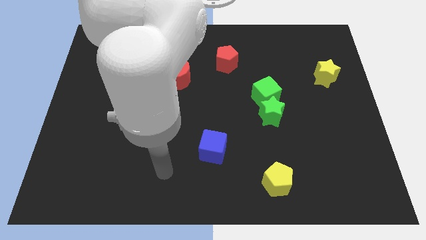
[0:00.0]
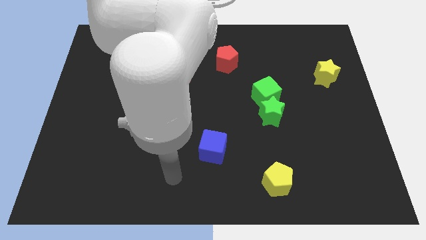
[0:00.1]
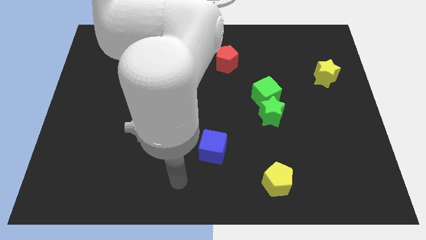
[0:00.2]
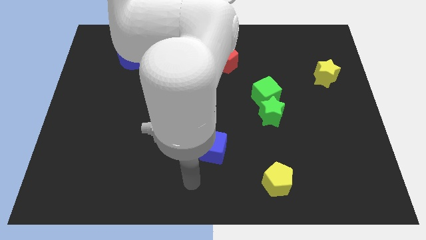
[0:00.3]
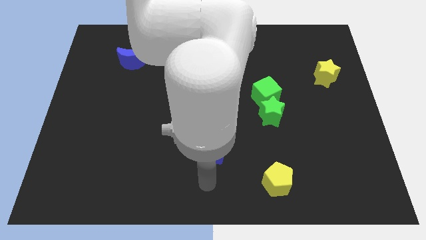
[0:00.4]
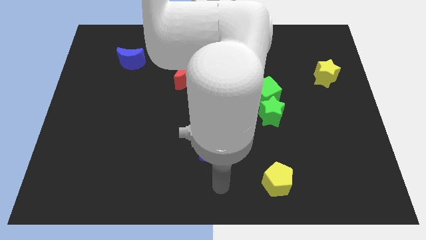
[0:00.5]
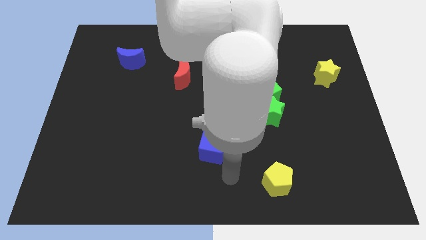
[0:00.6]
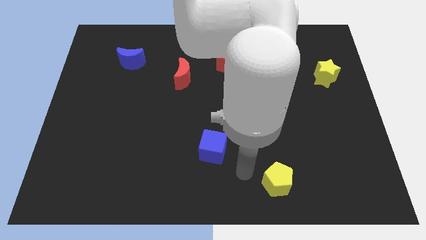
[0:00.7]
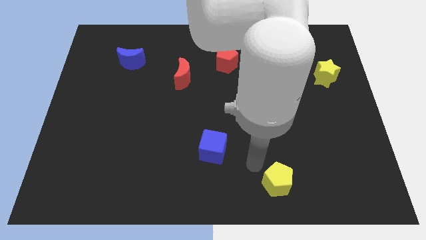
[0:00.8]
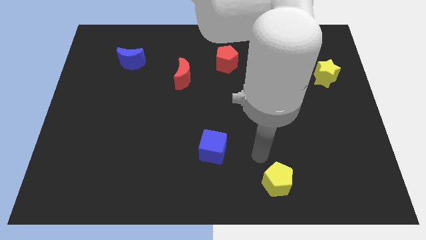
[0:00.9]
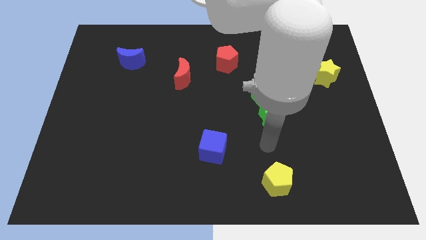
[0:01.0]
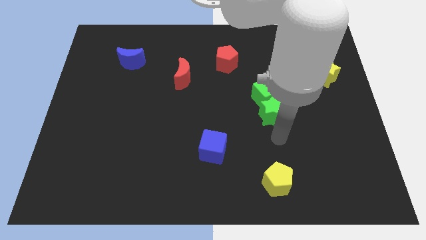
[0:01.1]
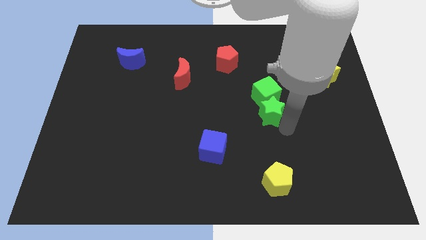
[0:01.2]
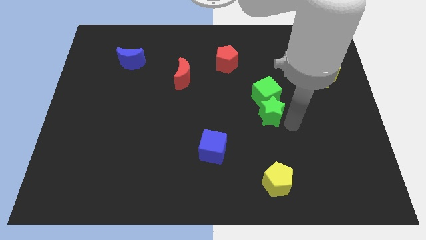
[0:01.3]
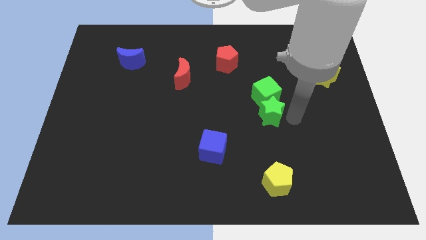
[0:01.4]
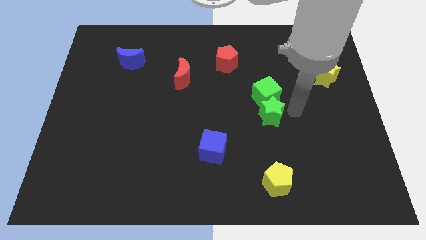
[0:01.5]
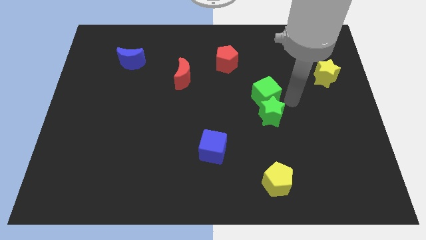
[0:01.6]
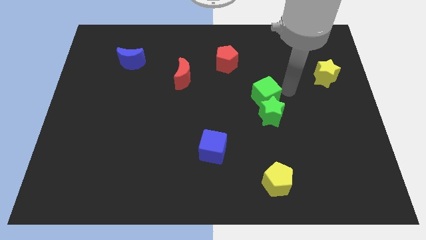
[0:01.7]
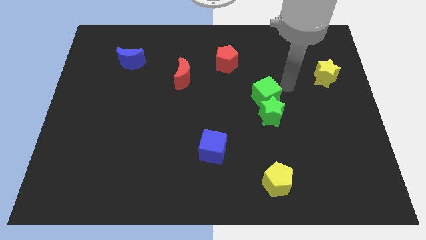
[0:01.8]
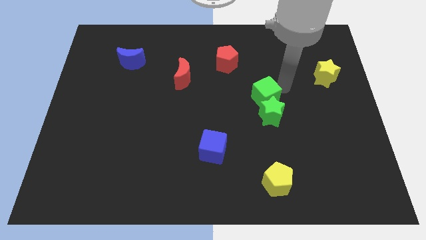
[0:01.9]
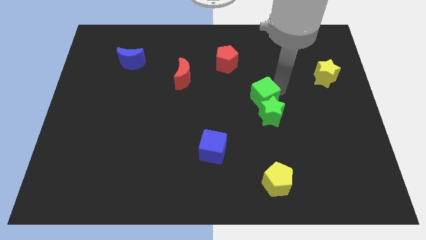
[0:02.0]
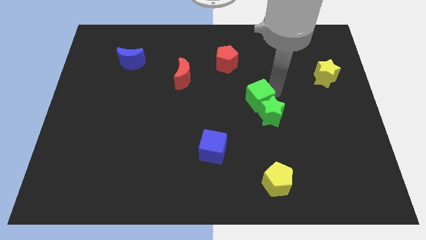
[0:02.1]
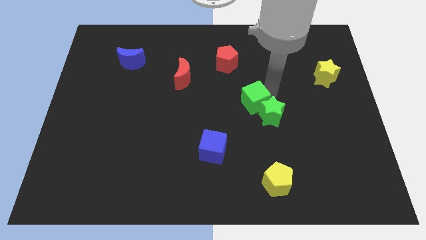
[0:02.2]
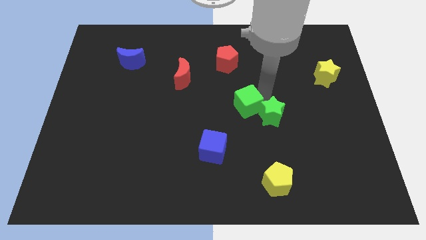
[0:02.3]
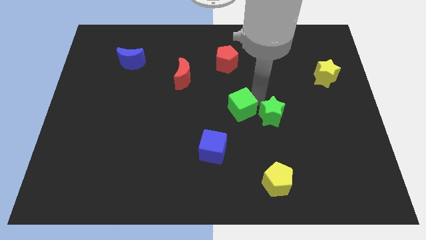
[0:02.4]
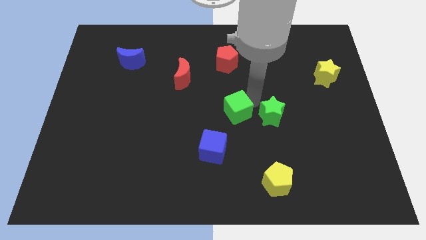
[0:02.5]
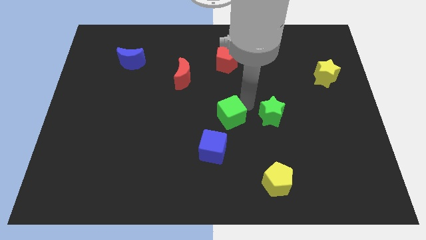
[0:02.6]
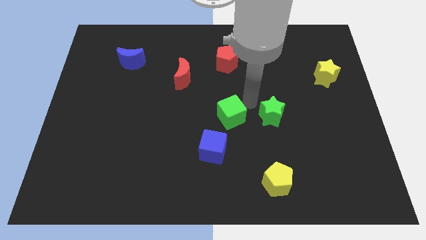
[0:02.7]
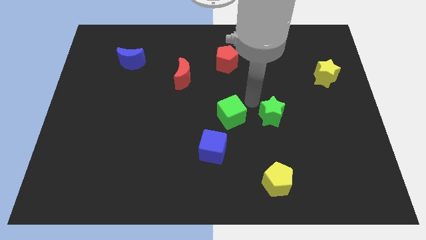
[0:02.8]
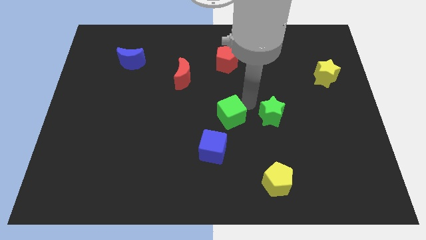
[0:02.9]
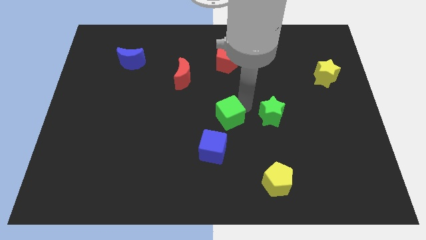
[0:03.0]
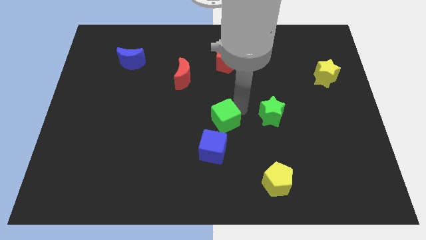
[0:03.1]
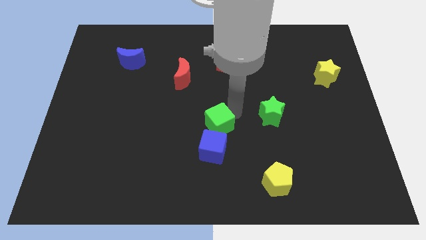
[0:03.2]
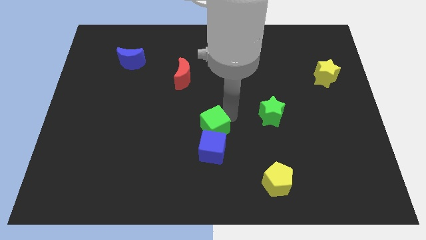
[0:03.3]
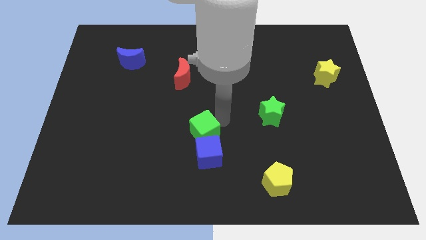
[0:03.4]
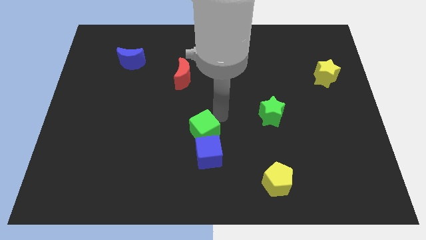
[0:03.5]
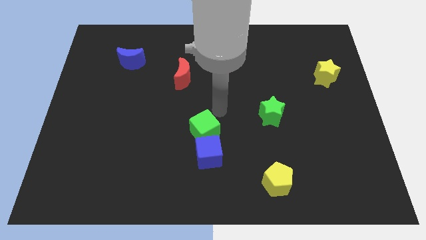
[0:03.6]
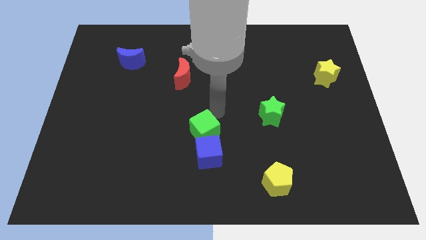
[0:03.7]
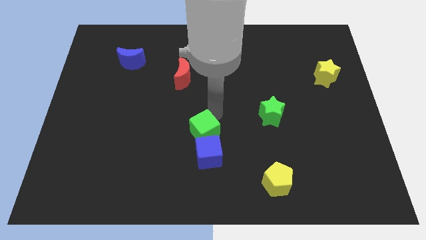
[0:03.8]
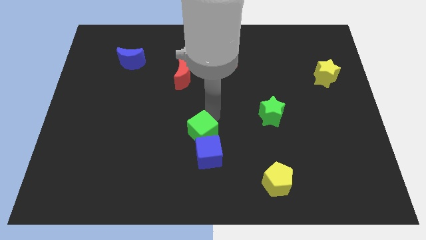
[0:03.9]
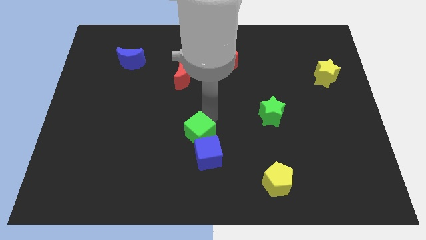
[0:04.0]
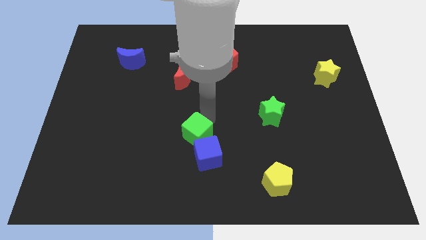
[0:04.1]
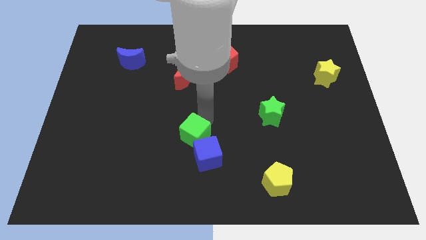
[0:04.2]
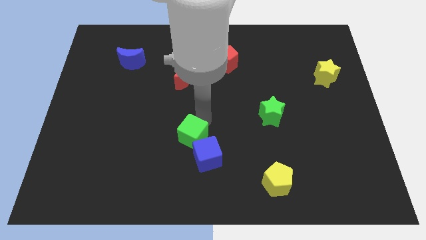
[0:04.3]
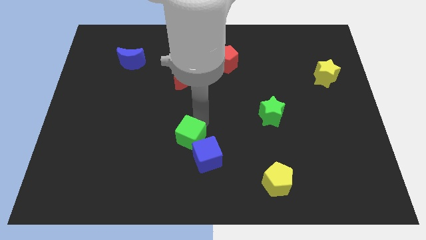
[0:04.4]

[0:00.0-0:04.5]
push the green cube downwards and left

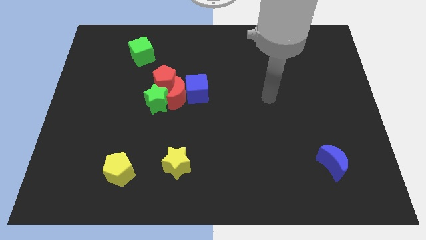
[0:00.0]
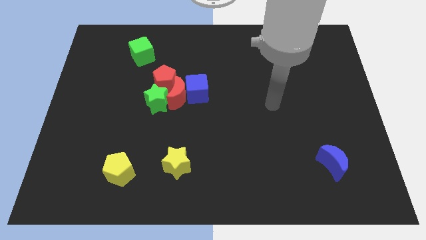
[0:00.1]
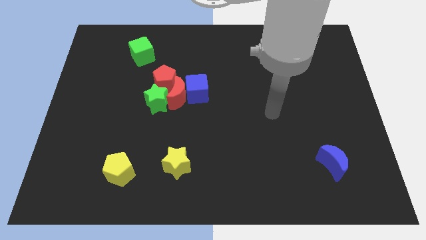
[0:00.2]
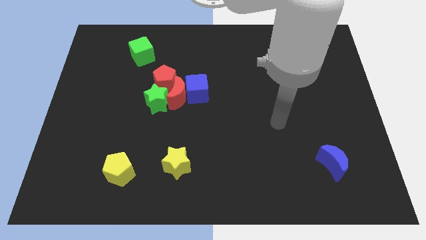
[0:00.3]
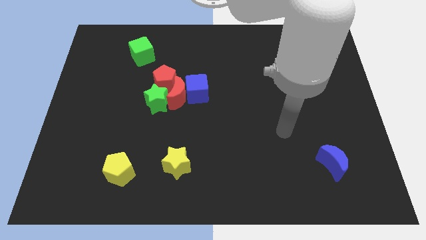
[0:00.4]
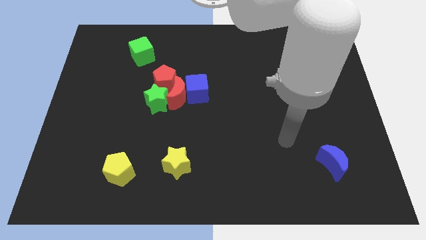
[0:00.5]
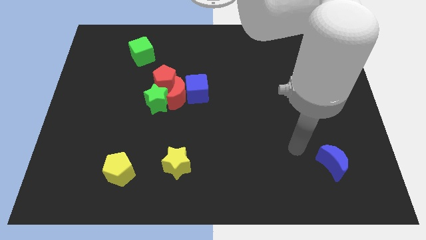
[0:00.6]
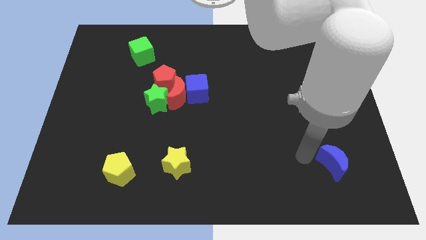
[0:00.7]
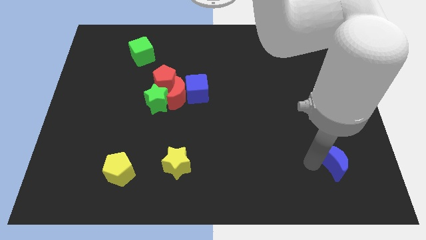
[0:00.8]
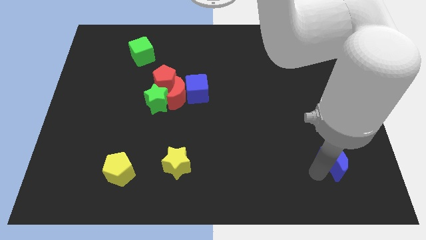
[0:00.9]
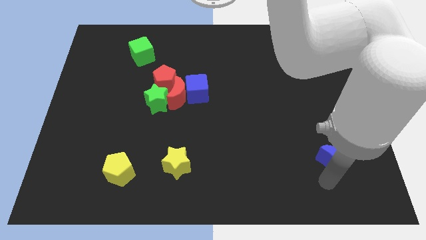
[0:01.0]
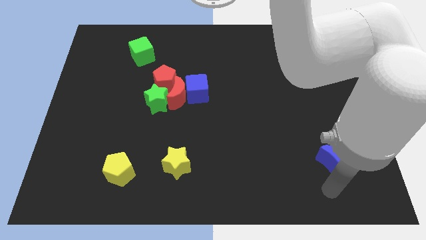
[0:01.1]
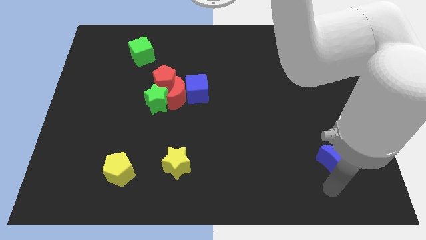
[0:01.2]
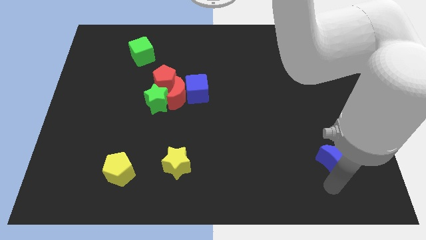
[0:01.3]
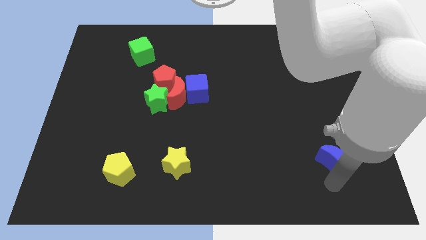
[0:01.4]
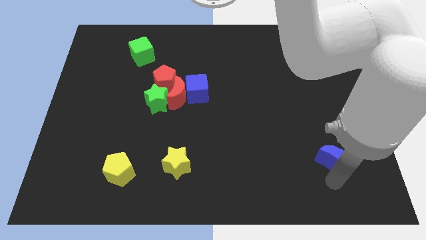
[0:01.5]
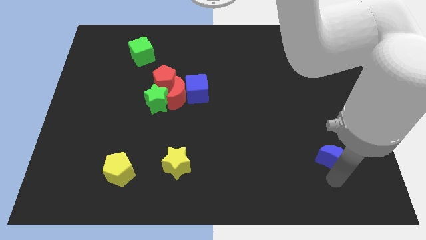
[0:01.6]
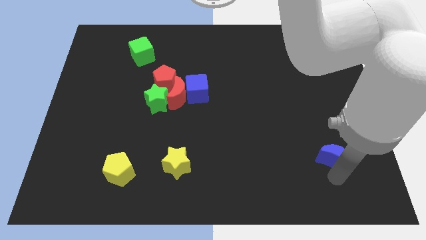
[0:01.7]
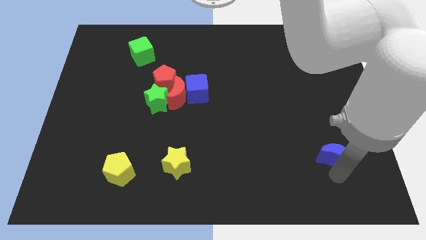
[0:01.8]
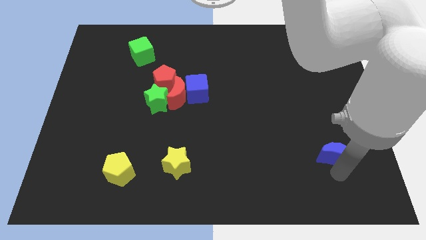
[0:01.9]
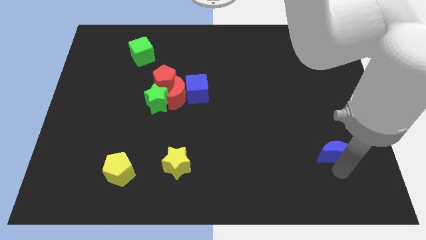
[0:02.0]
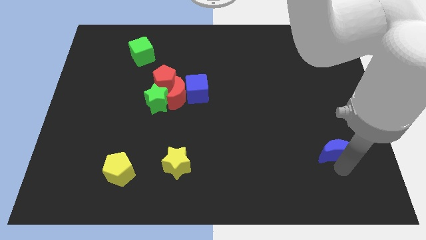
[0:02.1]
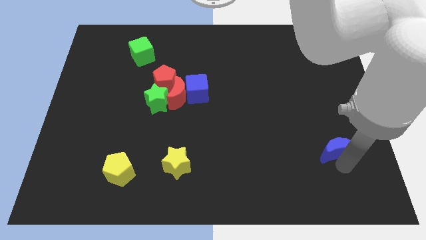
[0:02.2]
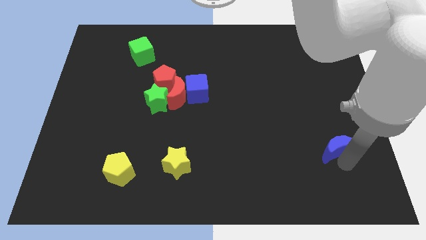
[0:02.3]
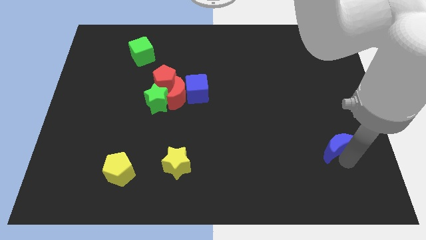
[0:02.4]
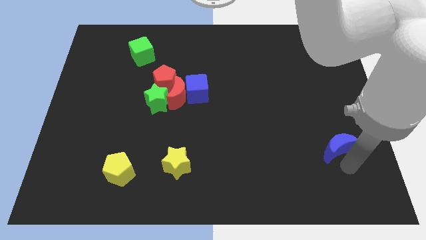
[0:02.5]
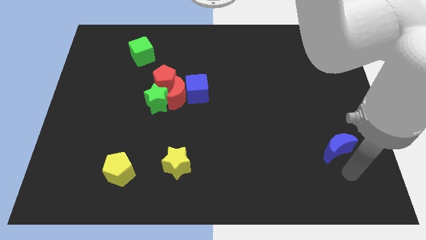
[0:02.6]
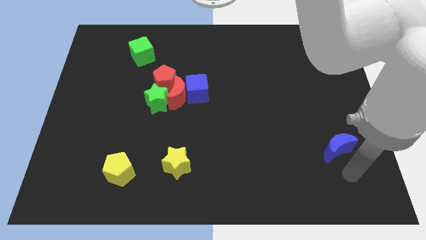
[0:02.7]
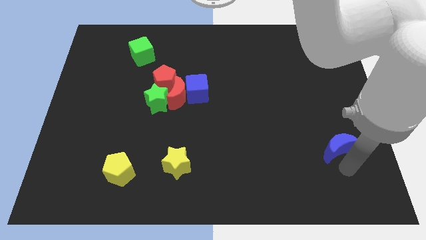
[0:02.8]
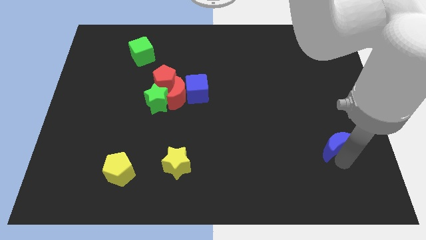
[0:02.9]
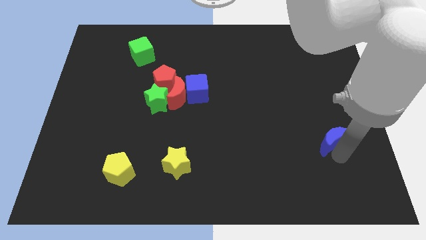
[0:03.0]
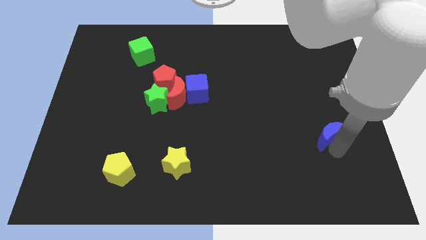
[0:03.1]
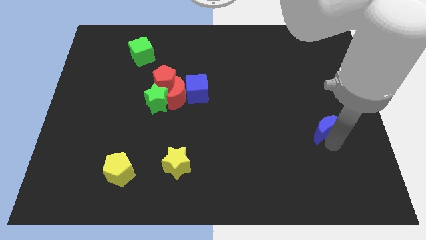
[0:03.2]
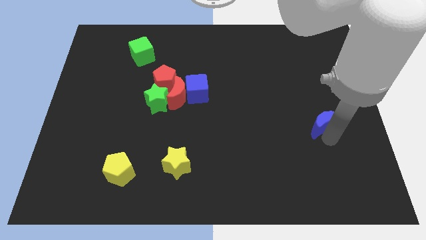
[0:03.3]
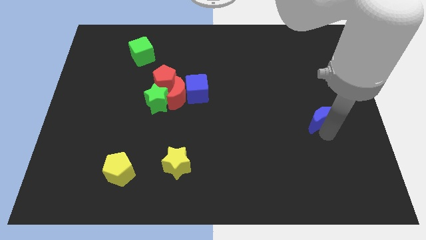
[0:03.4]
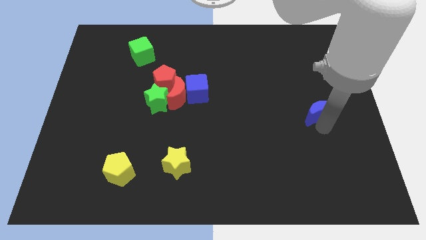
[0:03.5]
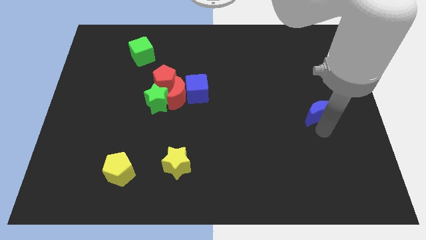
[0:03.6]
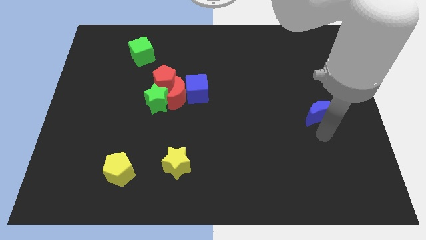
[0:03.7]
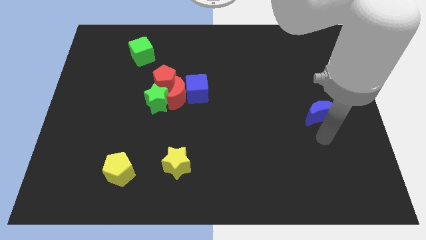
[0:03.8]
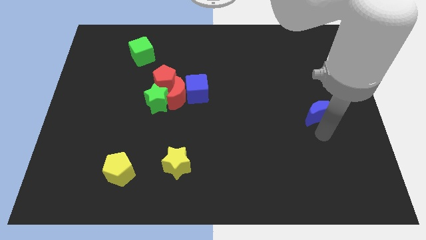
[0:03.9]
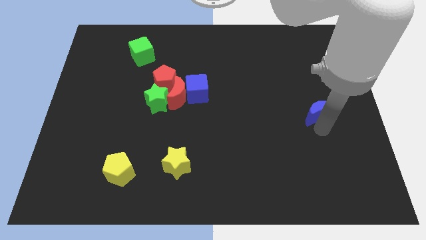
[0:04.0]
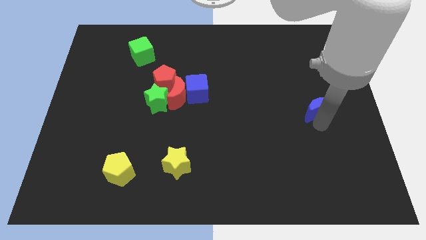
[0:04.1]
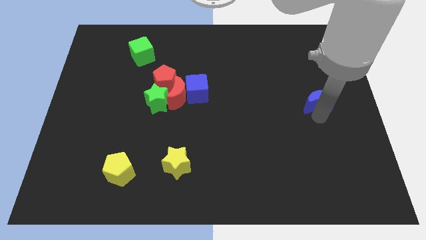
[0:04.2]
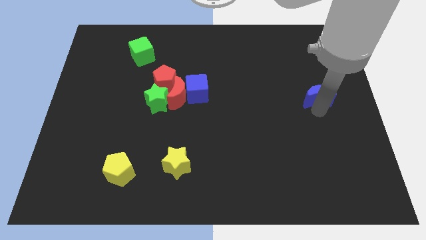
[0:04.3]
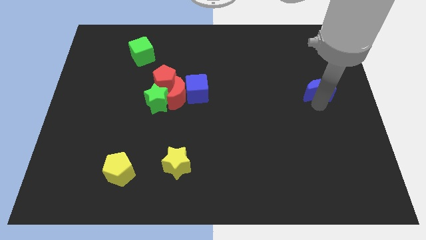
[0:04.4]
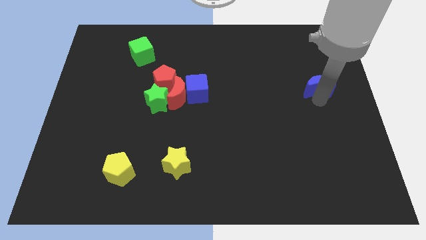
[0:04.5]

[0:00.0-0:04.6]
slide the blue moon upwards
